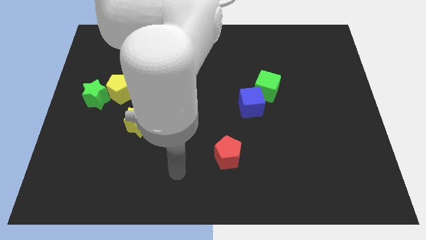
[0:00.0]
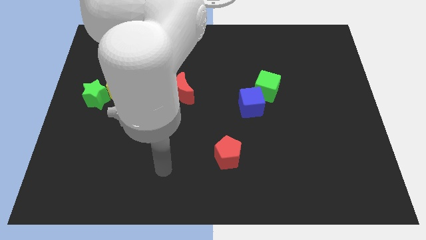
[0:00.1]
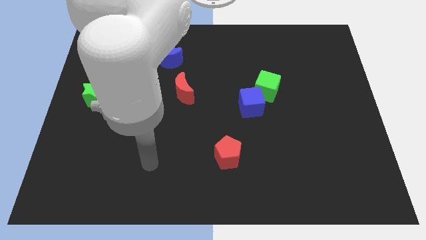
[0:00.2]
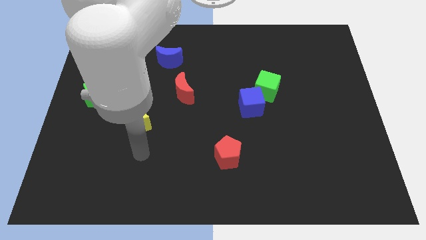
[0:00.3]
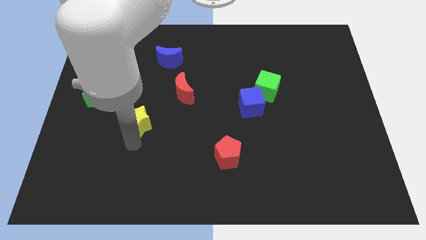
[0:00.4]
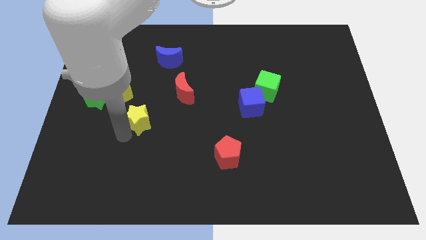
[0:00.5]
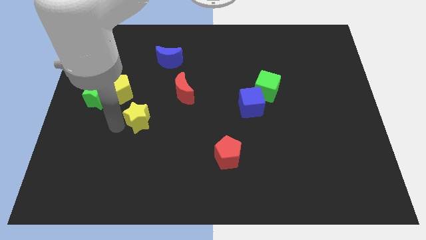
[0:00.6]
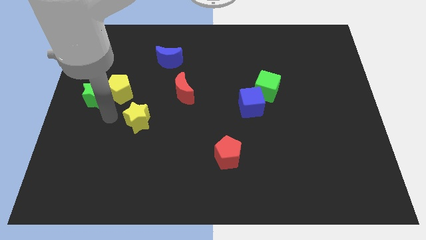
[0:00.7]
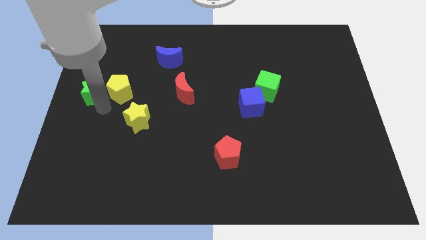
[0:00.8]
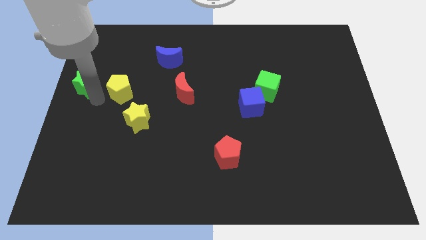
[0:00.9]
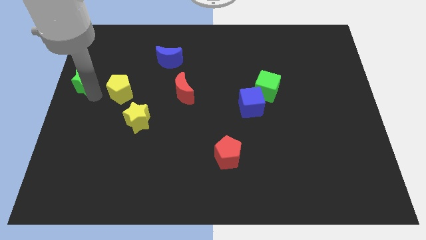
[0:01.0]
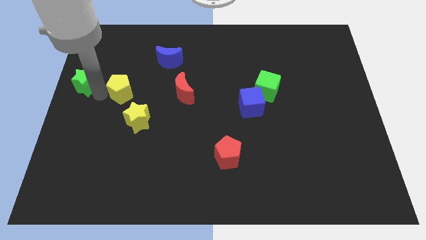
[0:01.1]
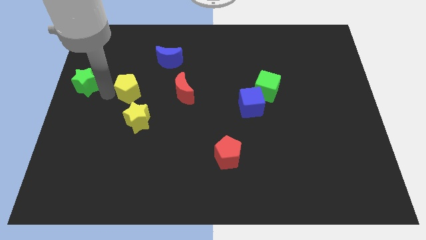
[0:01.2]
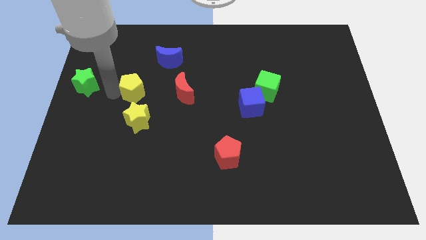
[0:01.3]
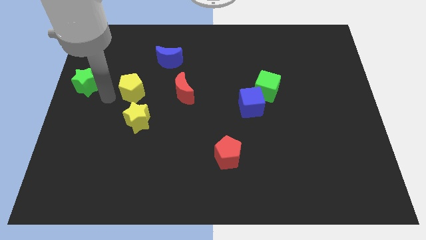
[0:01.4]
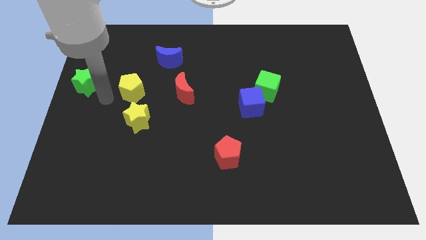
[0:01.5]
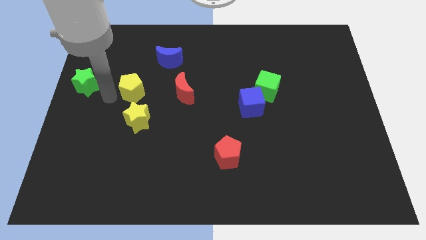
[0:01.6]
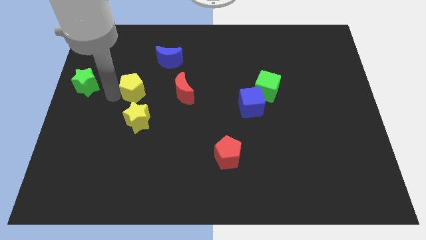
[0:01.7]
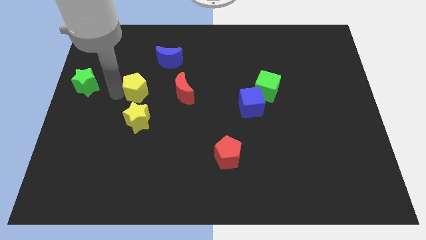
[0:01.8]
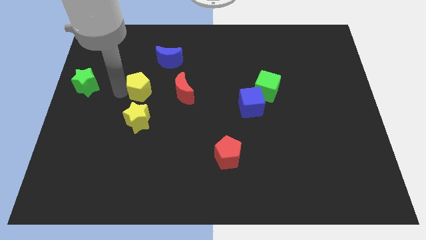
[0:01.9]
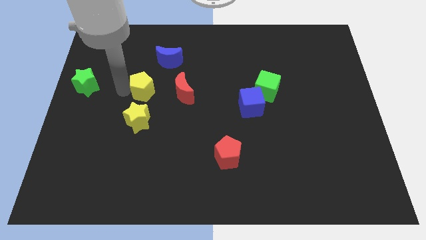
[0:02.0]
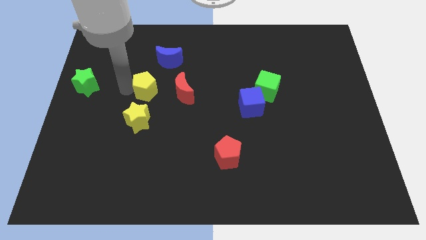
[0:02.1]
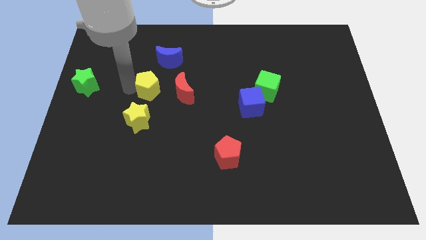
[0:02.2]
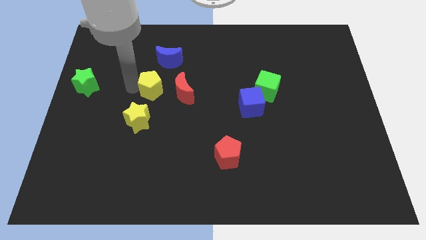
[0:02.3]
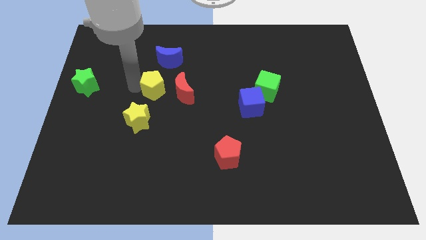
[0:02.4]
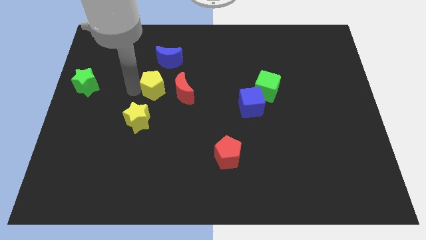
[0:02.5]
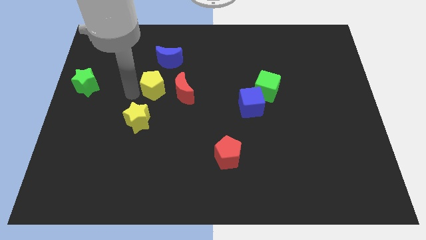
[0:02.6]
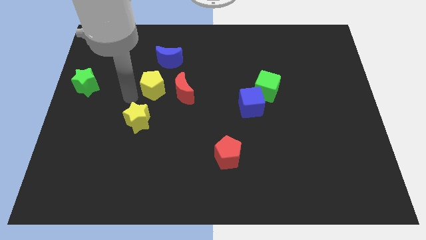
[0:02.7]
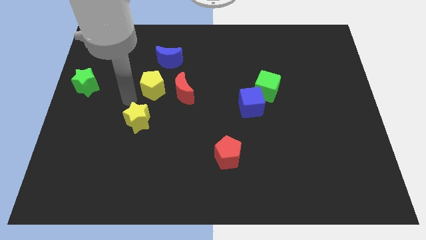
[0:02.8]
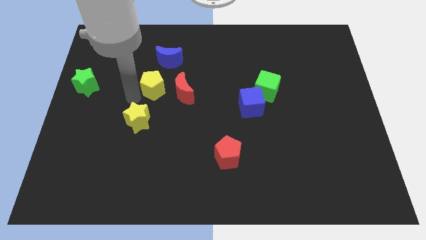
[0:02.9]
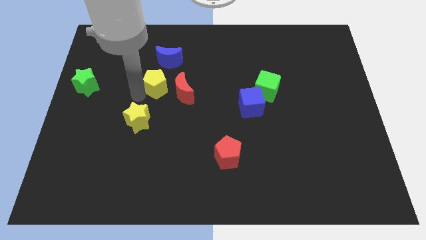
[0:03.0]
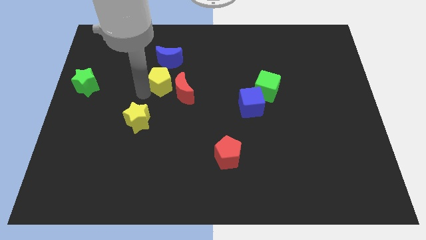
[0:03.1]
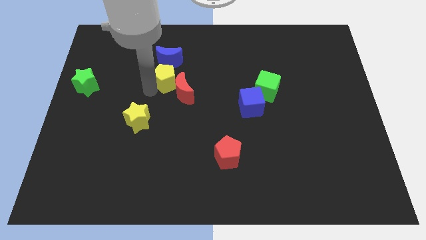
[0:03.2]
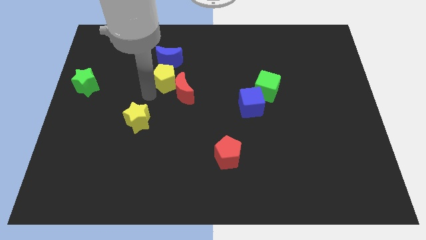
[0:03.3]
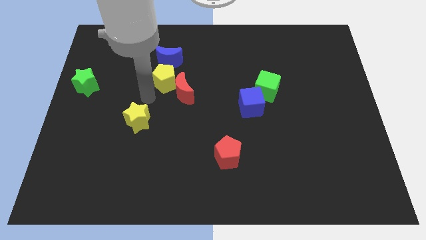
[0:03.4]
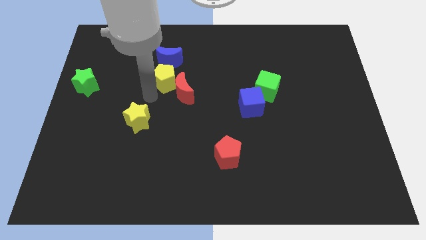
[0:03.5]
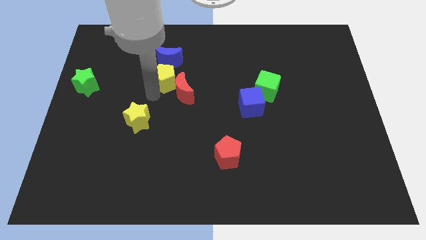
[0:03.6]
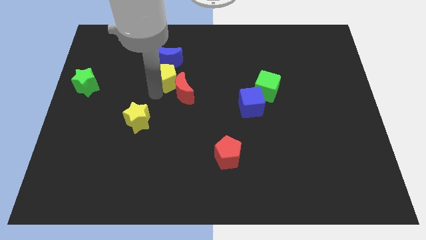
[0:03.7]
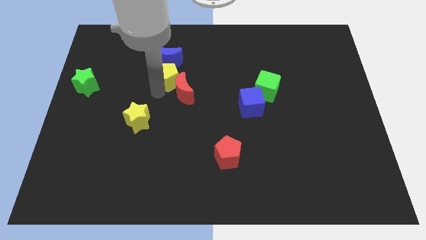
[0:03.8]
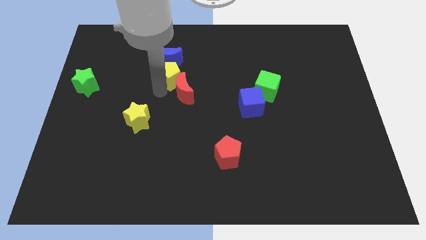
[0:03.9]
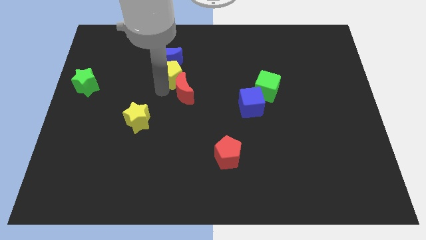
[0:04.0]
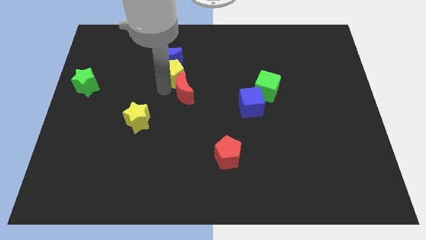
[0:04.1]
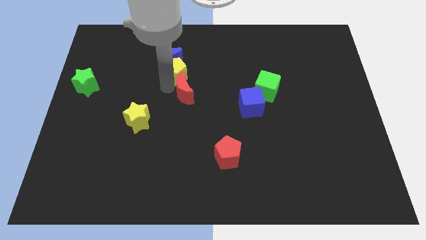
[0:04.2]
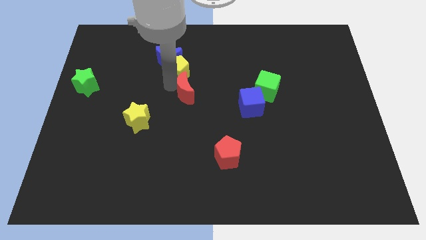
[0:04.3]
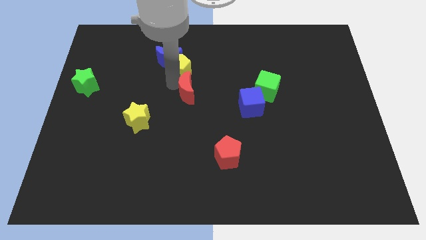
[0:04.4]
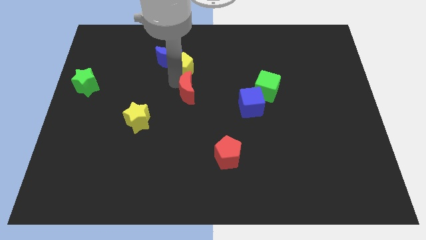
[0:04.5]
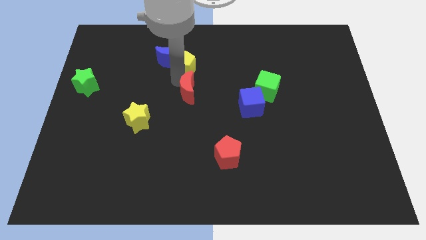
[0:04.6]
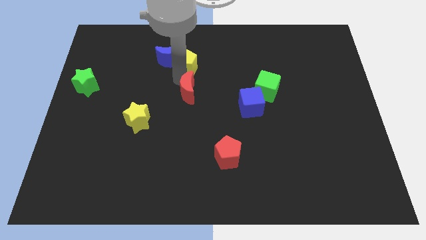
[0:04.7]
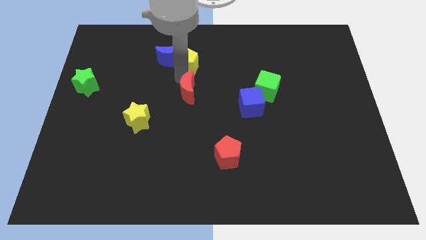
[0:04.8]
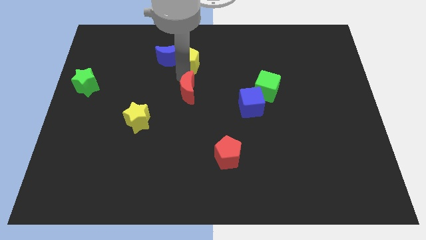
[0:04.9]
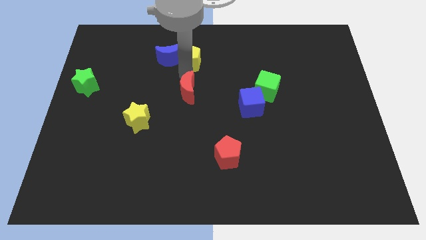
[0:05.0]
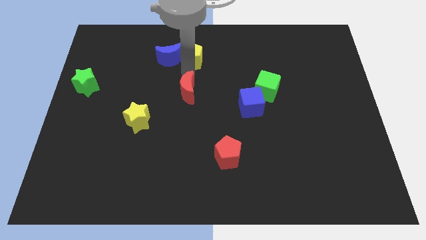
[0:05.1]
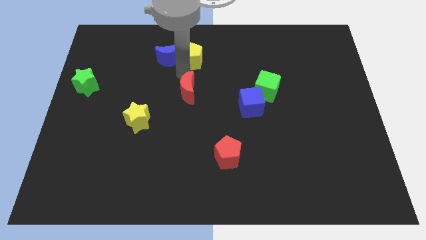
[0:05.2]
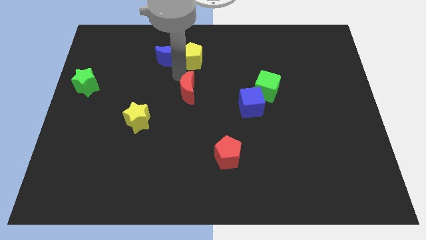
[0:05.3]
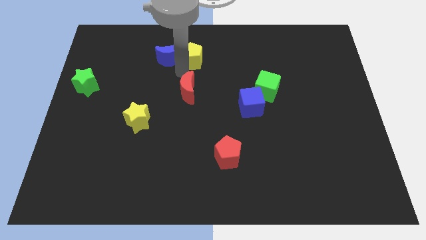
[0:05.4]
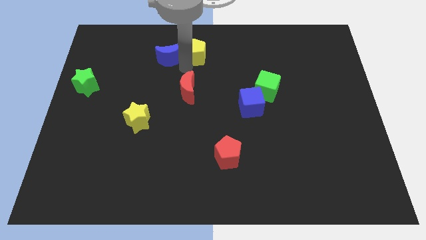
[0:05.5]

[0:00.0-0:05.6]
put the yellow pentagon to the top side
